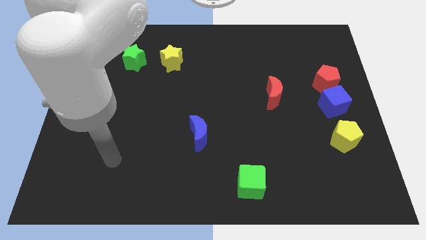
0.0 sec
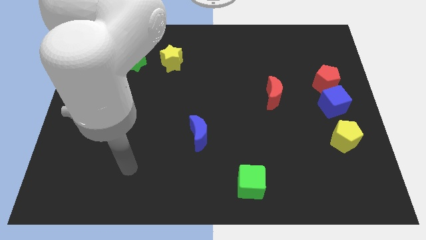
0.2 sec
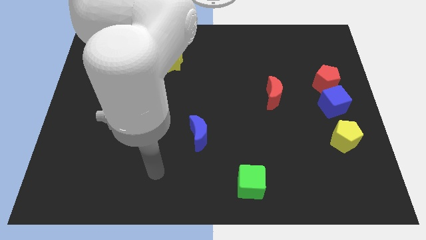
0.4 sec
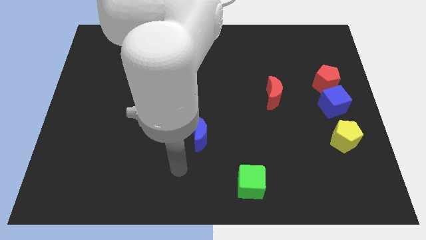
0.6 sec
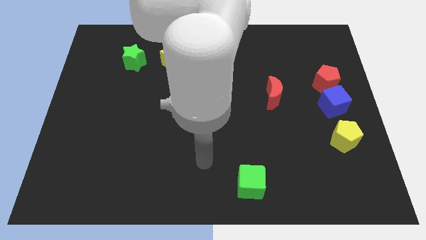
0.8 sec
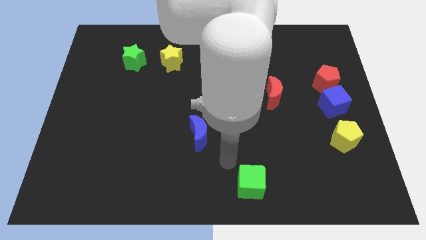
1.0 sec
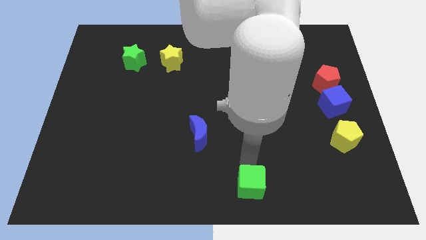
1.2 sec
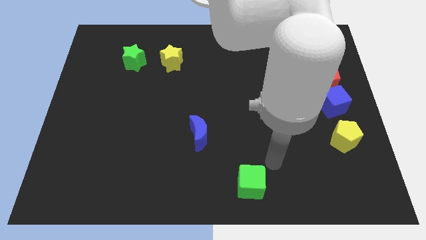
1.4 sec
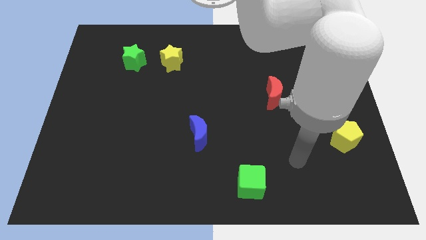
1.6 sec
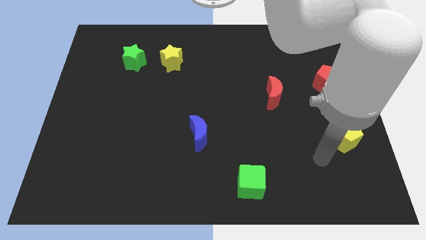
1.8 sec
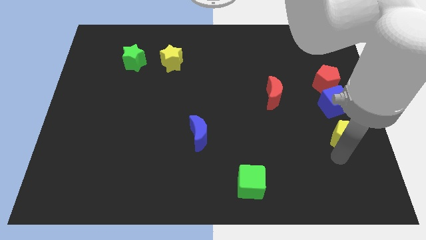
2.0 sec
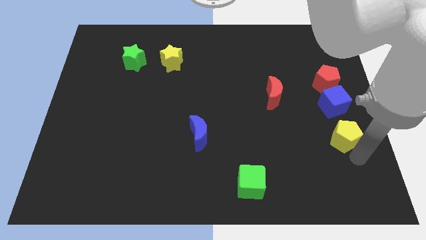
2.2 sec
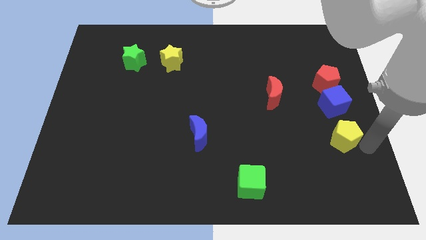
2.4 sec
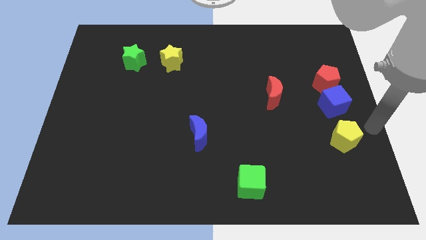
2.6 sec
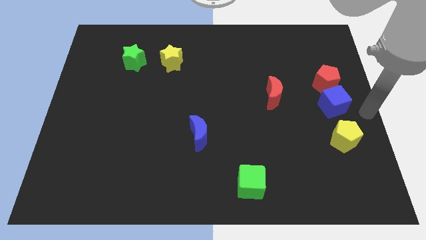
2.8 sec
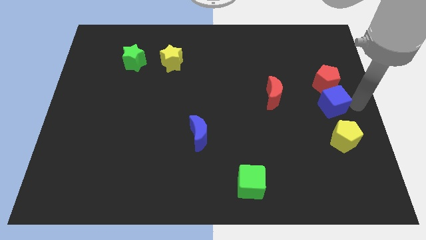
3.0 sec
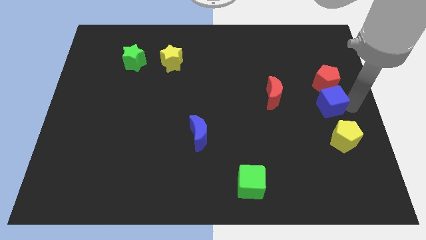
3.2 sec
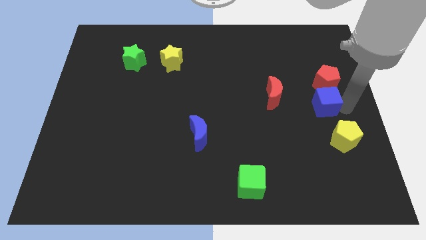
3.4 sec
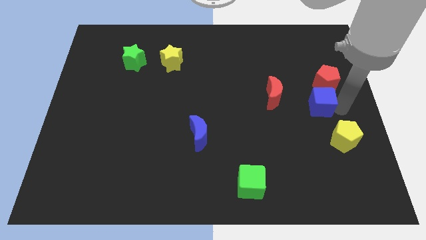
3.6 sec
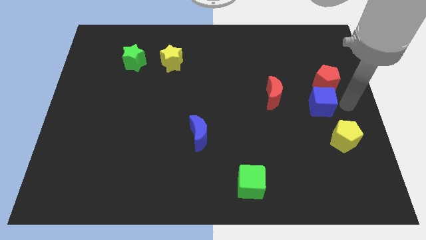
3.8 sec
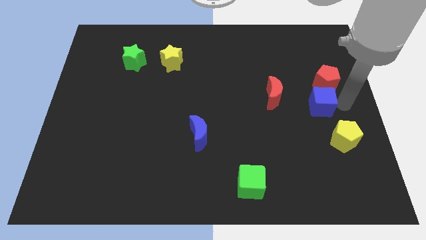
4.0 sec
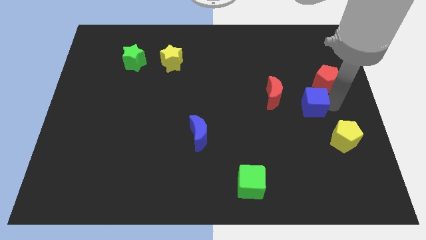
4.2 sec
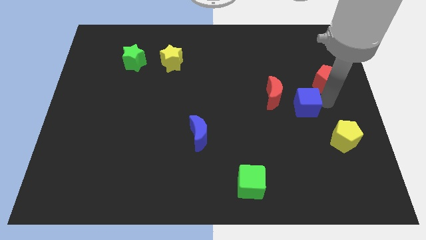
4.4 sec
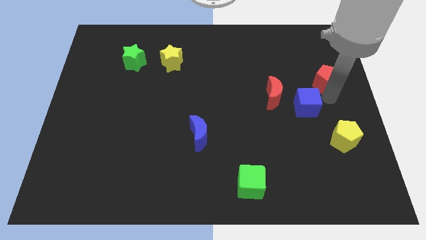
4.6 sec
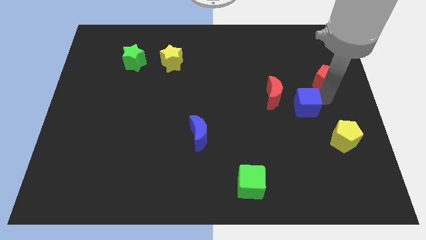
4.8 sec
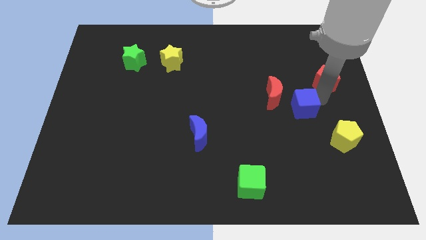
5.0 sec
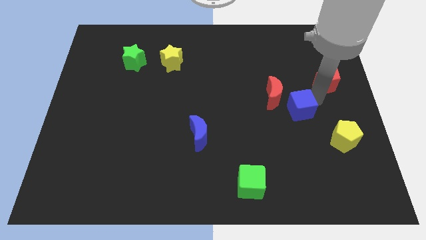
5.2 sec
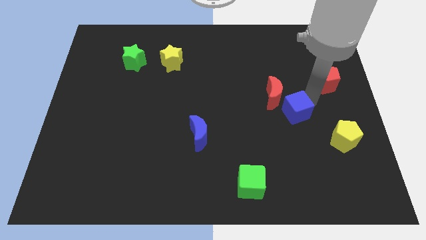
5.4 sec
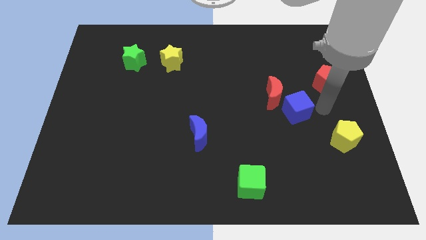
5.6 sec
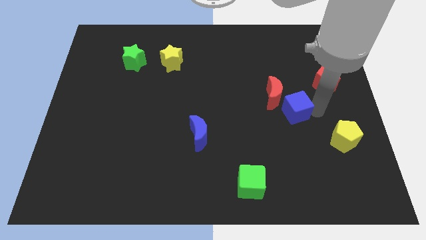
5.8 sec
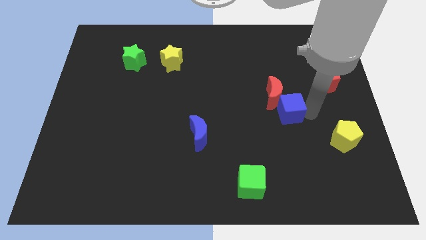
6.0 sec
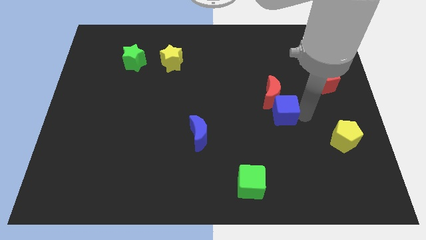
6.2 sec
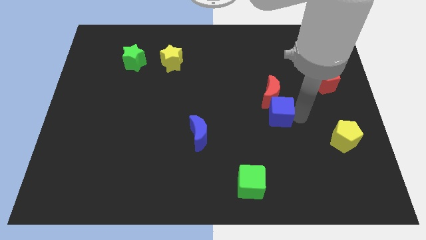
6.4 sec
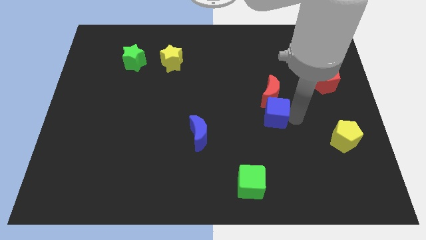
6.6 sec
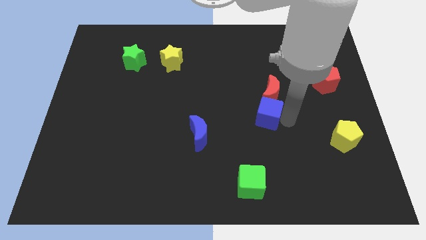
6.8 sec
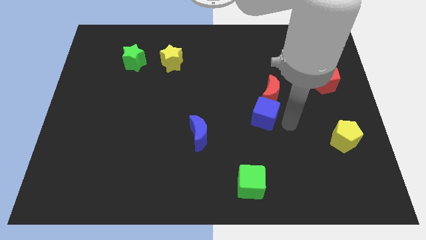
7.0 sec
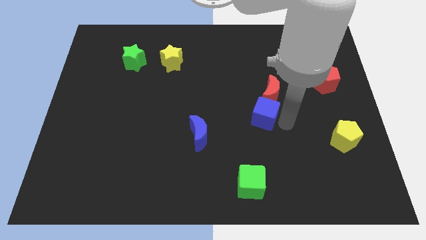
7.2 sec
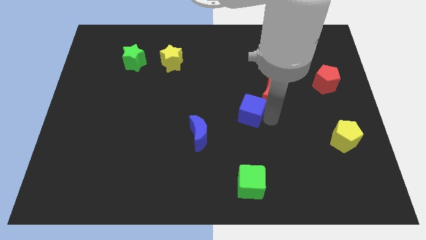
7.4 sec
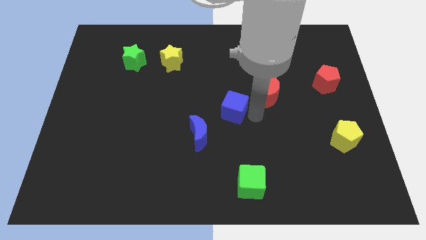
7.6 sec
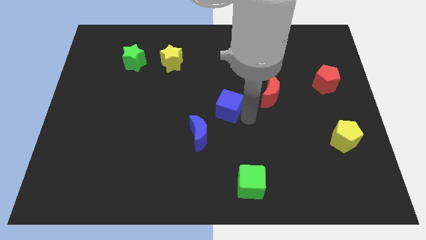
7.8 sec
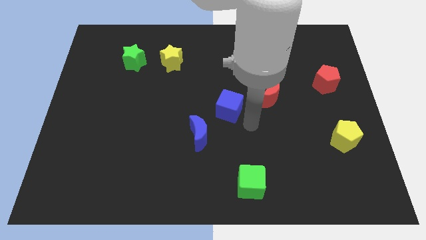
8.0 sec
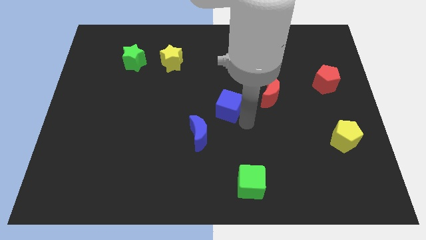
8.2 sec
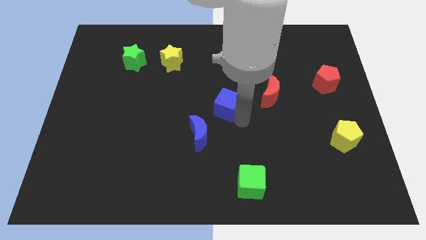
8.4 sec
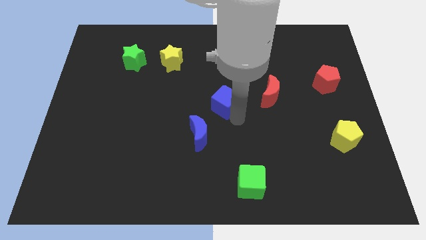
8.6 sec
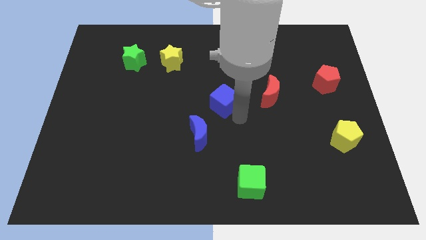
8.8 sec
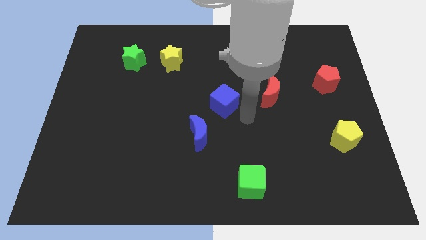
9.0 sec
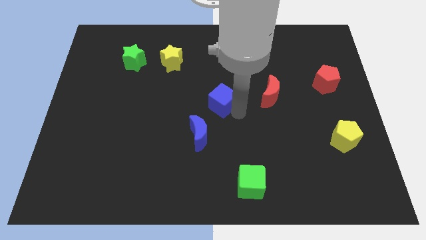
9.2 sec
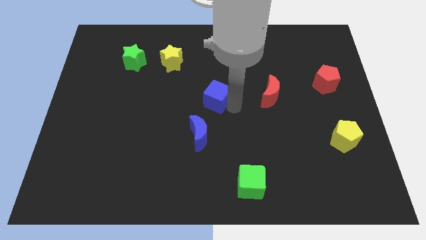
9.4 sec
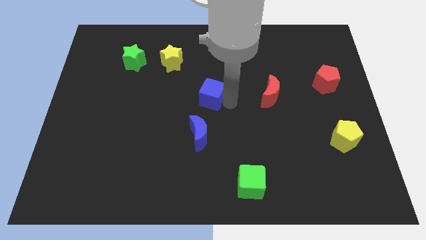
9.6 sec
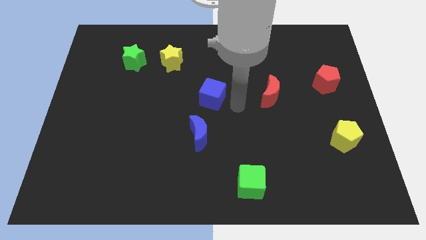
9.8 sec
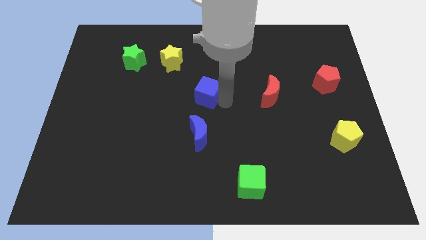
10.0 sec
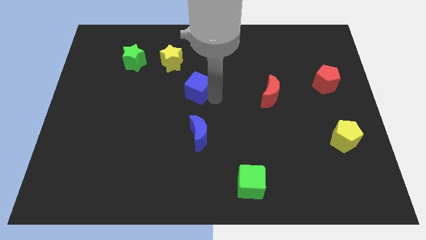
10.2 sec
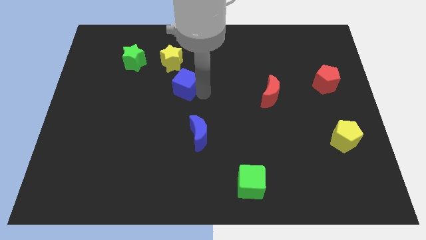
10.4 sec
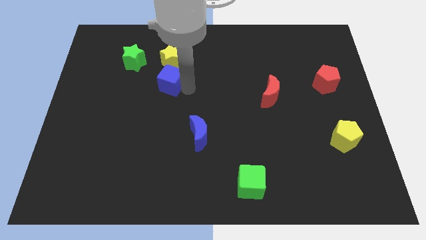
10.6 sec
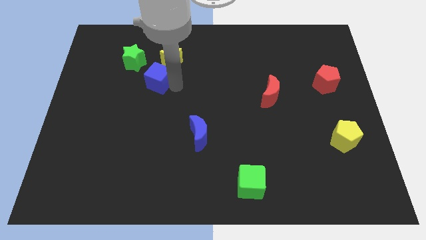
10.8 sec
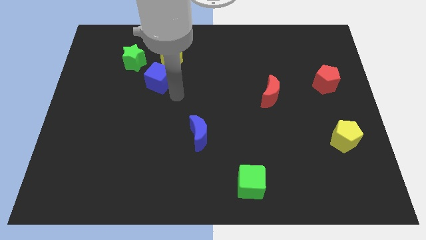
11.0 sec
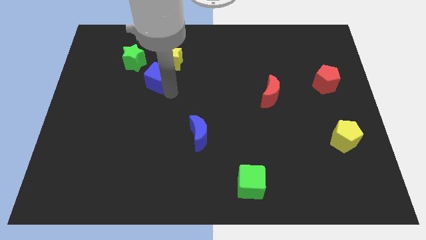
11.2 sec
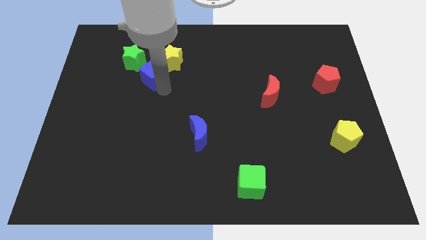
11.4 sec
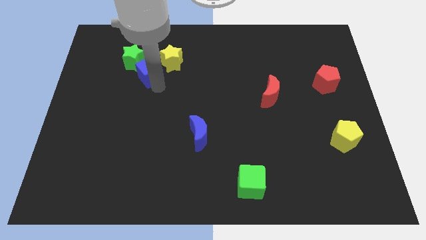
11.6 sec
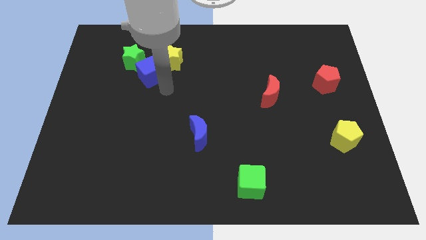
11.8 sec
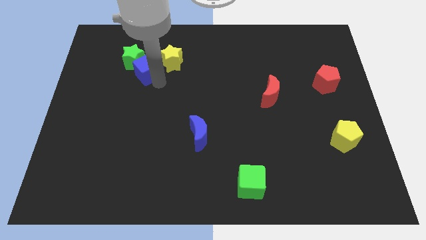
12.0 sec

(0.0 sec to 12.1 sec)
move the blue cube to the green star
